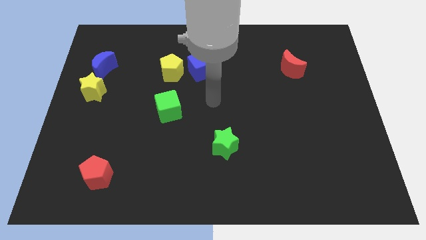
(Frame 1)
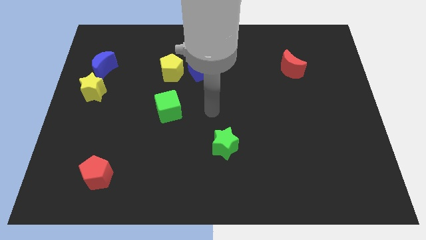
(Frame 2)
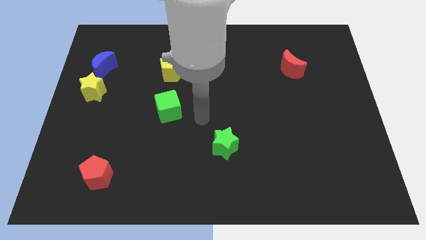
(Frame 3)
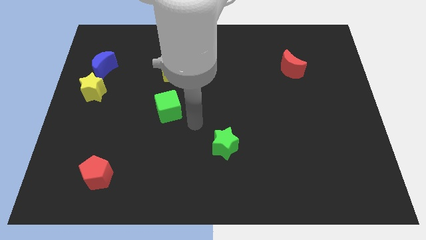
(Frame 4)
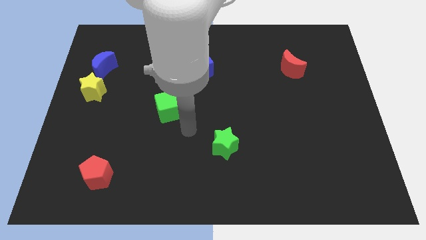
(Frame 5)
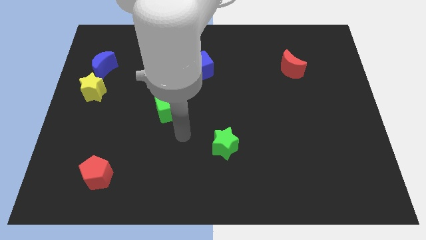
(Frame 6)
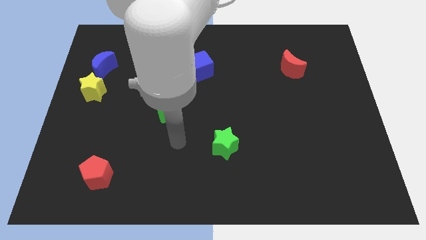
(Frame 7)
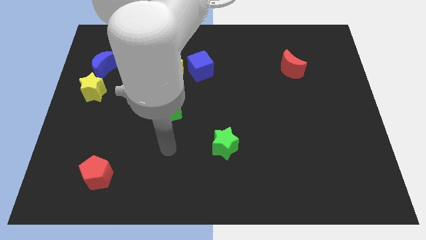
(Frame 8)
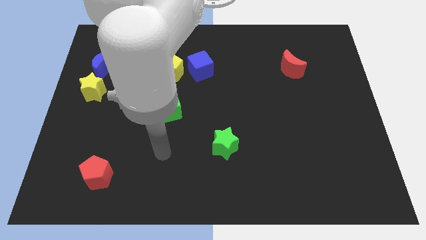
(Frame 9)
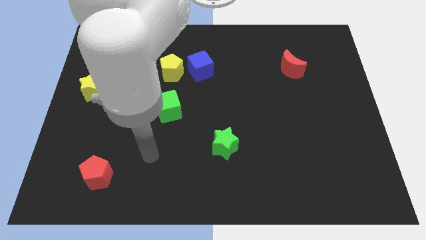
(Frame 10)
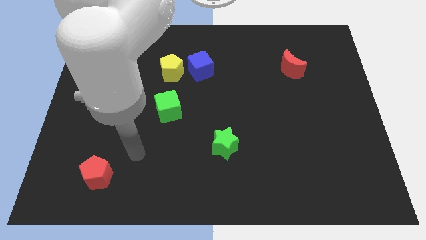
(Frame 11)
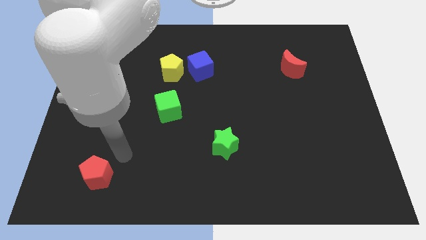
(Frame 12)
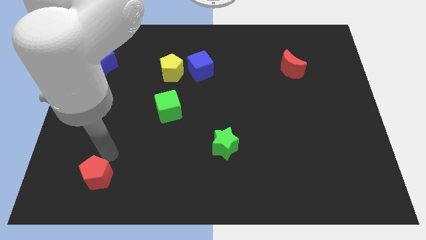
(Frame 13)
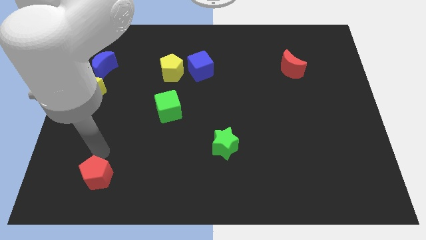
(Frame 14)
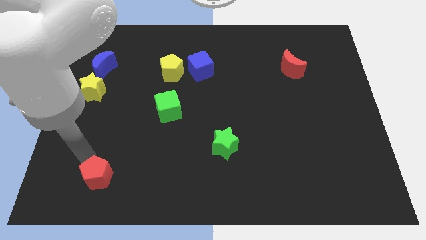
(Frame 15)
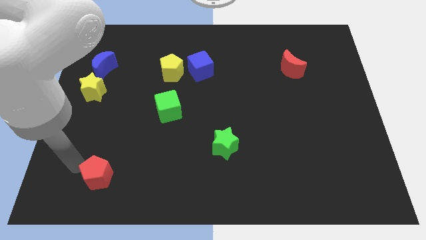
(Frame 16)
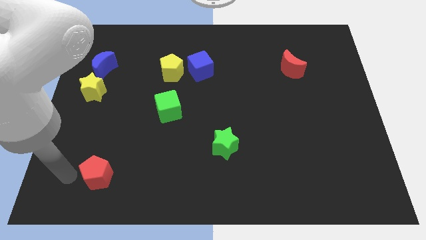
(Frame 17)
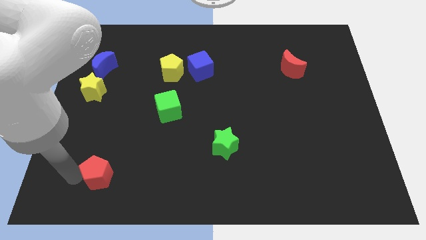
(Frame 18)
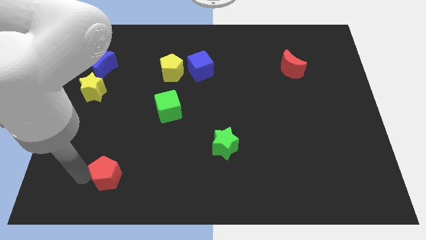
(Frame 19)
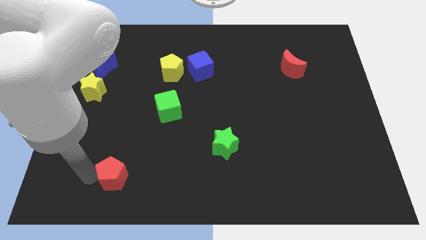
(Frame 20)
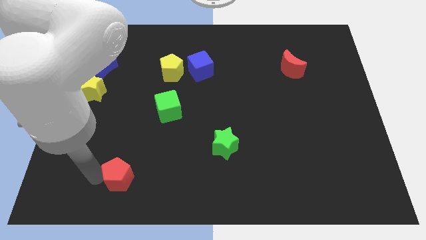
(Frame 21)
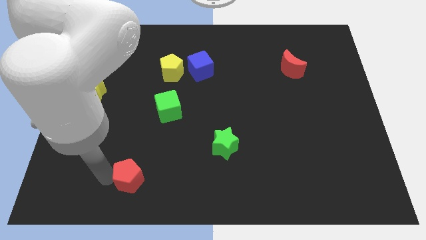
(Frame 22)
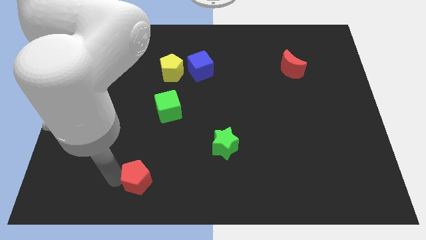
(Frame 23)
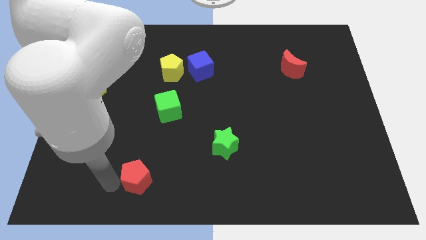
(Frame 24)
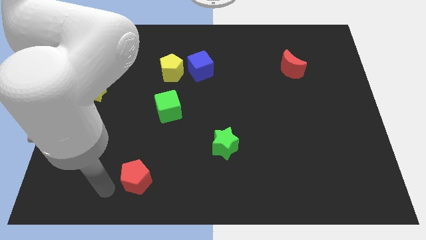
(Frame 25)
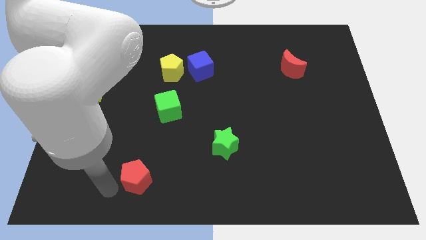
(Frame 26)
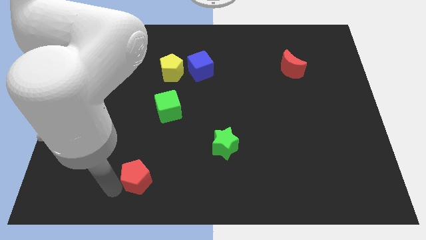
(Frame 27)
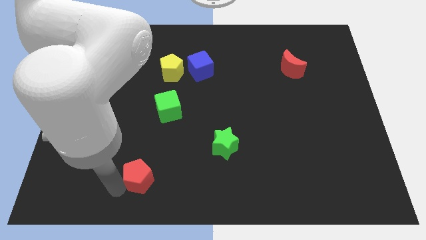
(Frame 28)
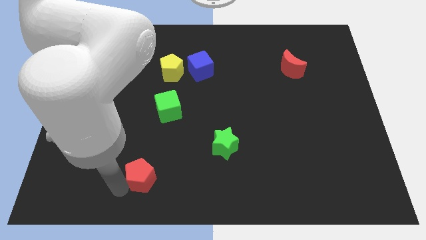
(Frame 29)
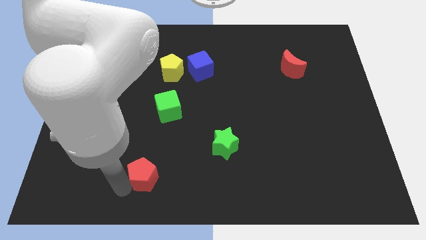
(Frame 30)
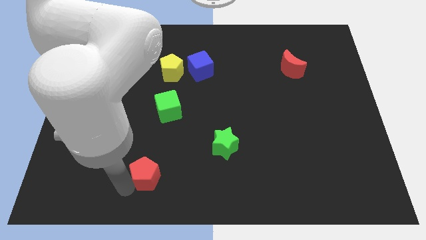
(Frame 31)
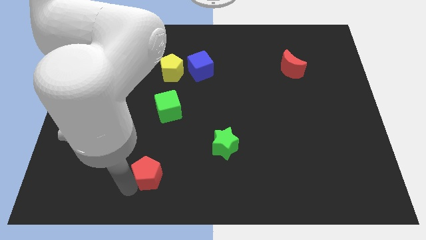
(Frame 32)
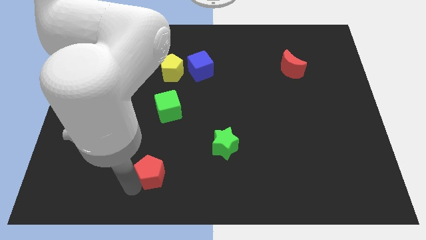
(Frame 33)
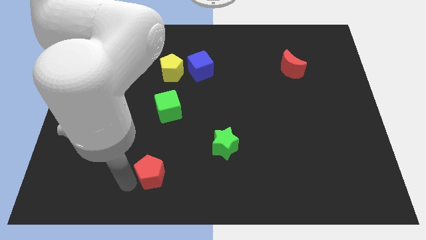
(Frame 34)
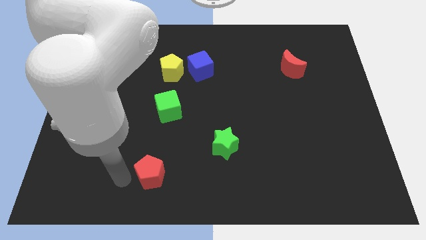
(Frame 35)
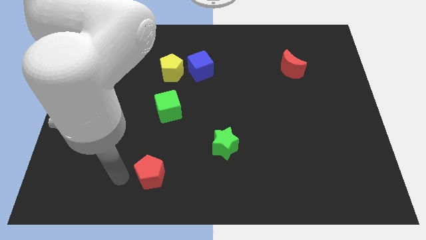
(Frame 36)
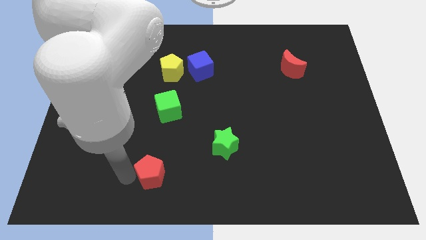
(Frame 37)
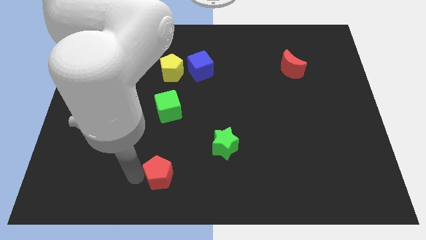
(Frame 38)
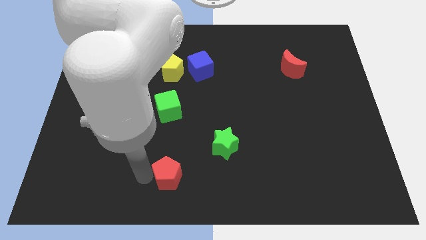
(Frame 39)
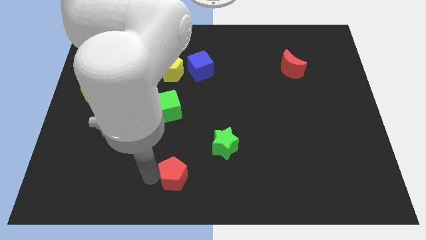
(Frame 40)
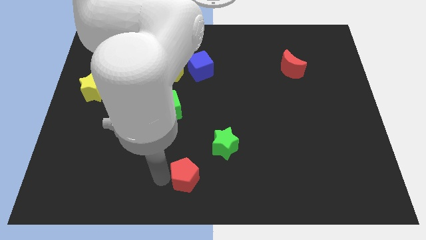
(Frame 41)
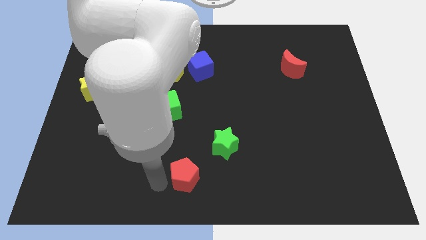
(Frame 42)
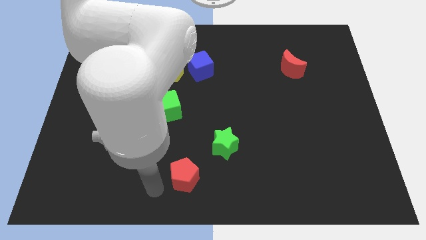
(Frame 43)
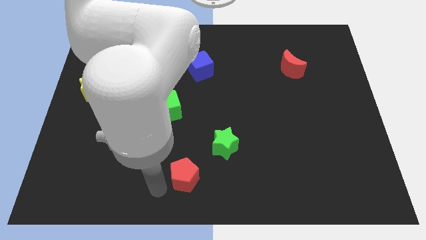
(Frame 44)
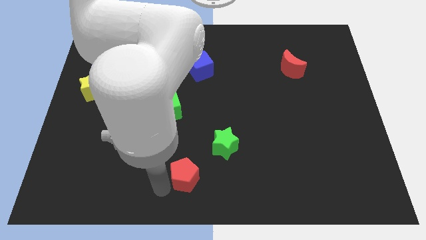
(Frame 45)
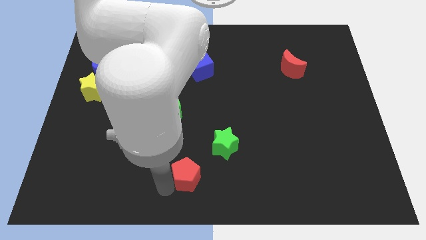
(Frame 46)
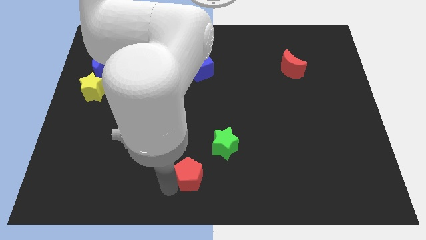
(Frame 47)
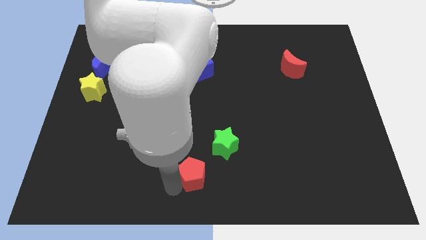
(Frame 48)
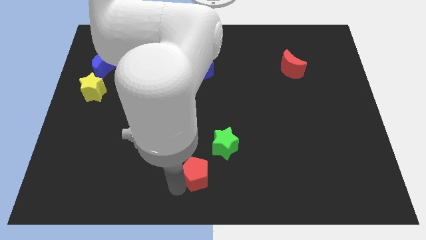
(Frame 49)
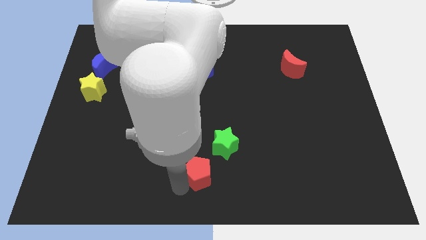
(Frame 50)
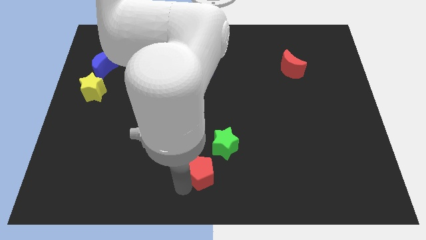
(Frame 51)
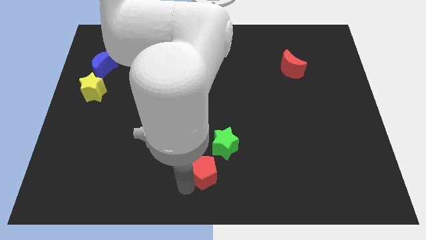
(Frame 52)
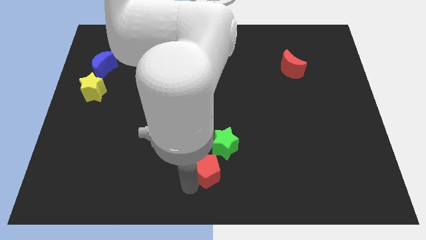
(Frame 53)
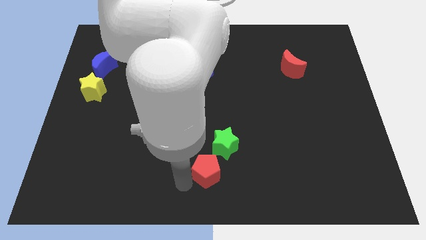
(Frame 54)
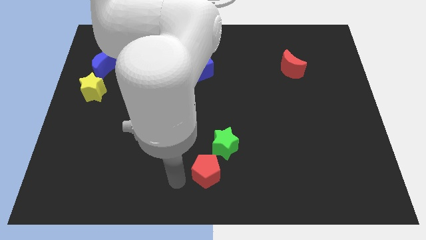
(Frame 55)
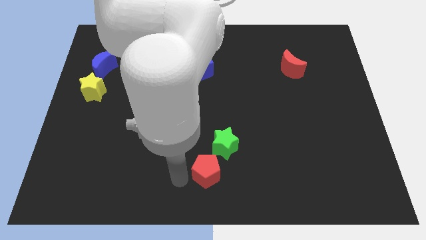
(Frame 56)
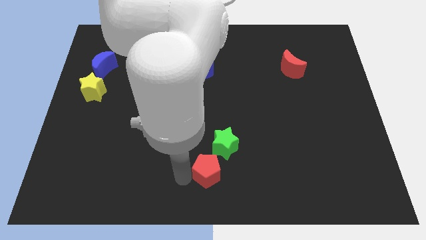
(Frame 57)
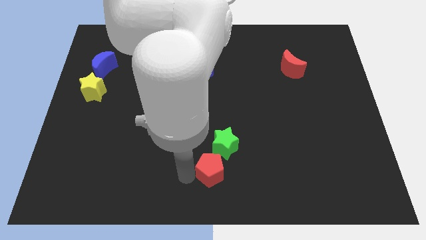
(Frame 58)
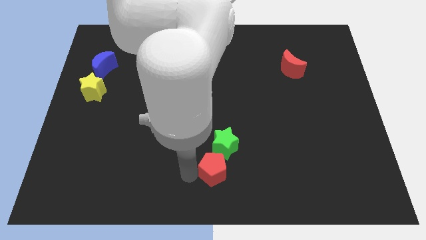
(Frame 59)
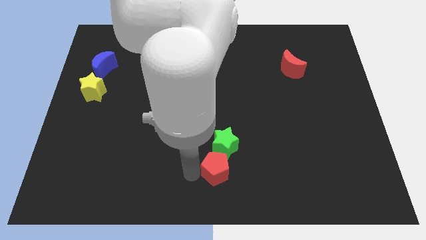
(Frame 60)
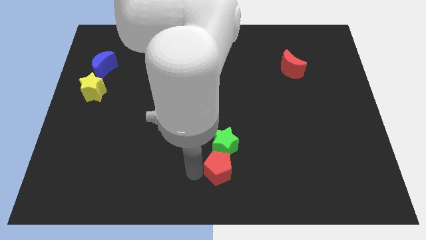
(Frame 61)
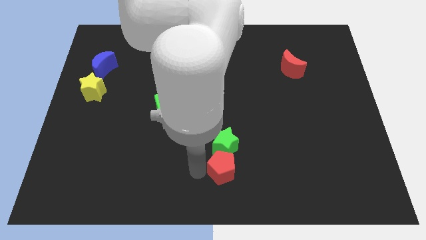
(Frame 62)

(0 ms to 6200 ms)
push the red pentagon to the bottom right of the green star

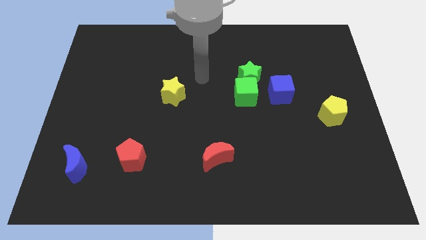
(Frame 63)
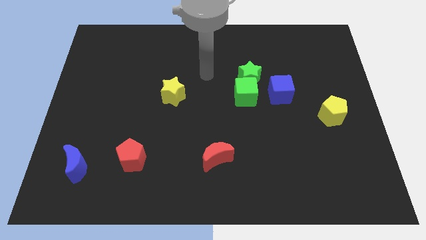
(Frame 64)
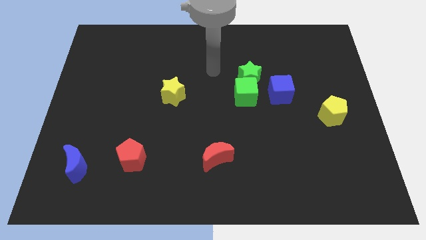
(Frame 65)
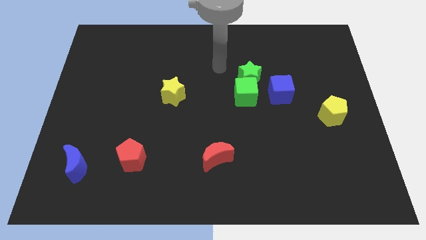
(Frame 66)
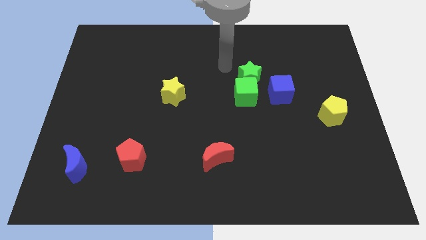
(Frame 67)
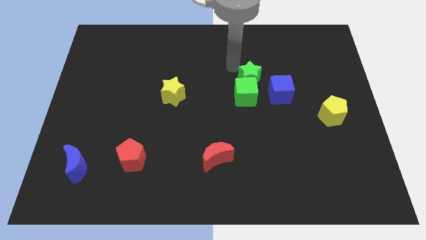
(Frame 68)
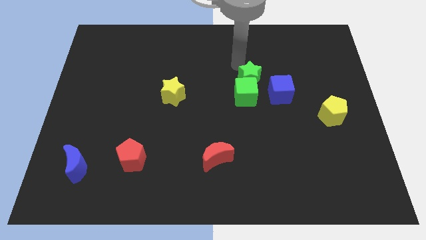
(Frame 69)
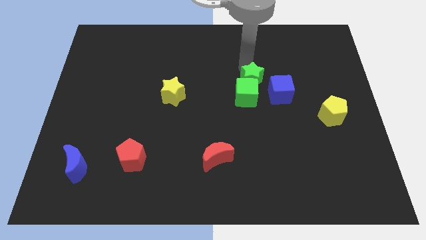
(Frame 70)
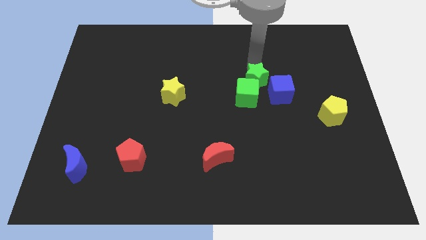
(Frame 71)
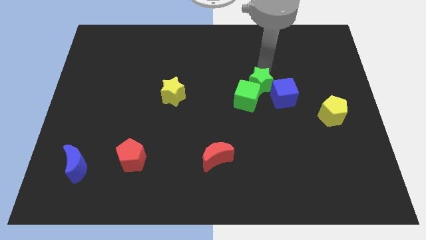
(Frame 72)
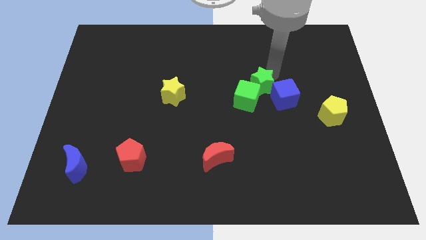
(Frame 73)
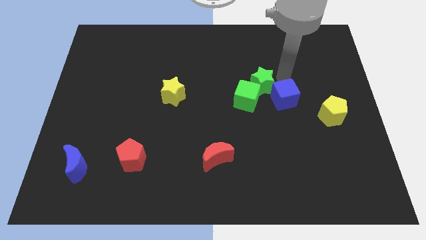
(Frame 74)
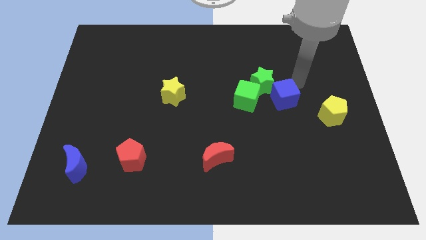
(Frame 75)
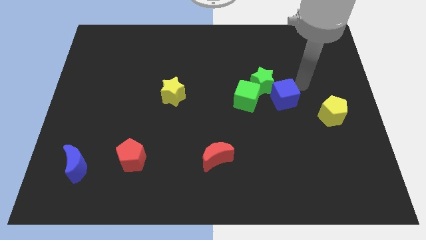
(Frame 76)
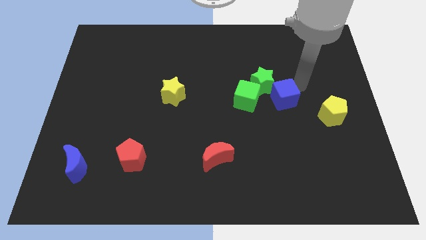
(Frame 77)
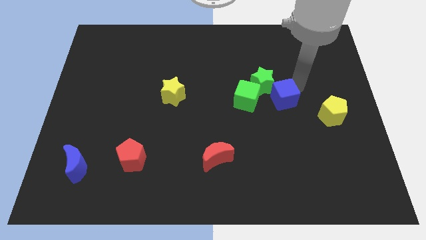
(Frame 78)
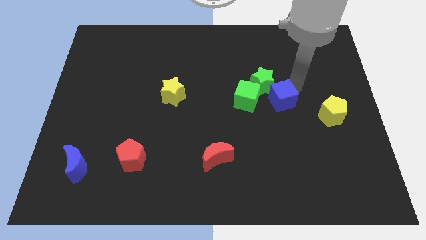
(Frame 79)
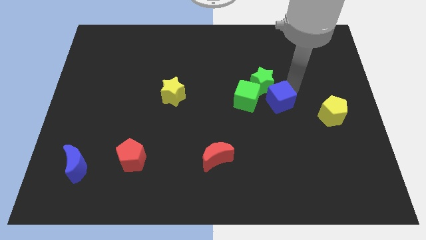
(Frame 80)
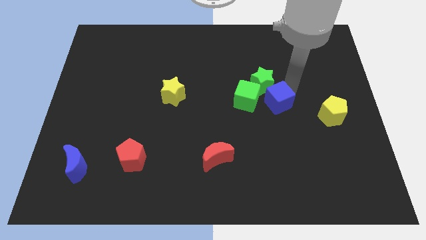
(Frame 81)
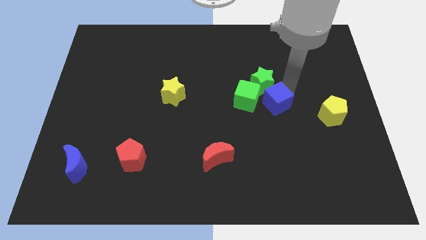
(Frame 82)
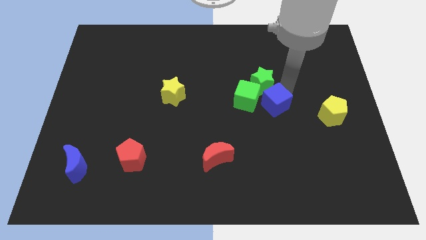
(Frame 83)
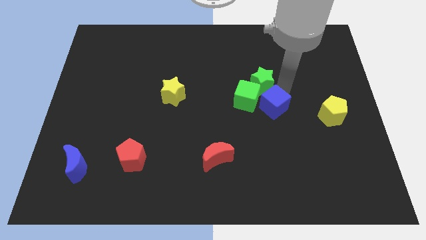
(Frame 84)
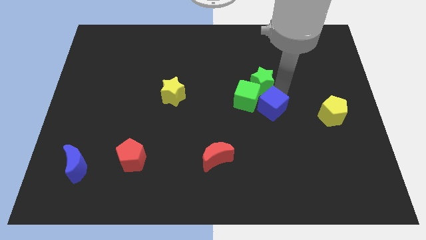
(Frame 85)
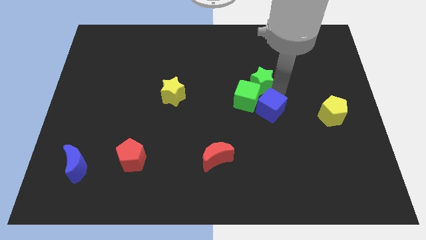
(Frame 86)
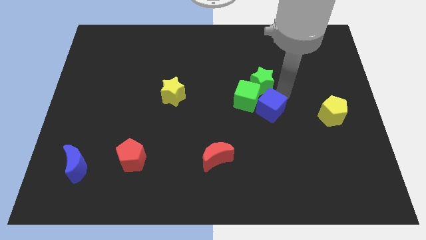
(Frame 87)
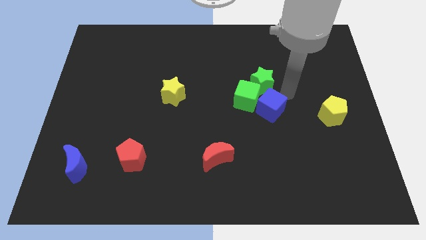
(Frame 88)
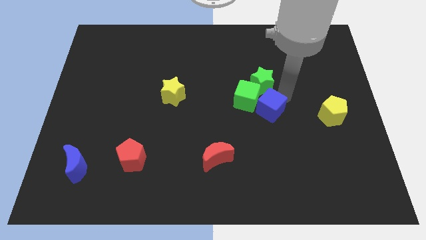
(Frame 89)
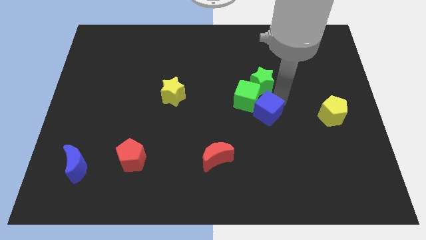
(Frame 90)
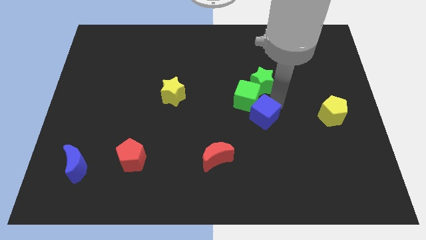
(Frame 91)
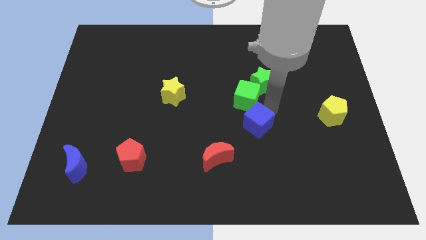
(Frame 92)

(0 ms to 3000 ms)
move the blue cube to the top right of the red moon
